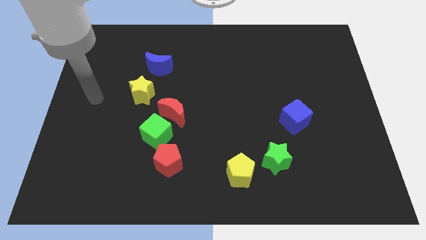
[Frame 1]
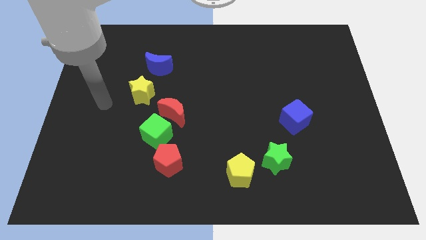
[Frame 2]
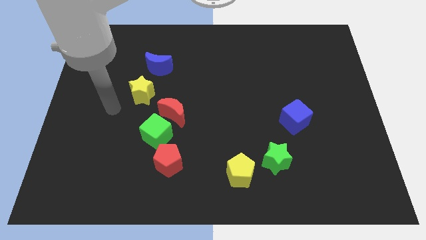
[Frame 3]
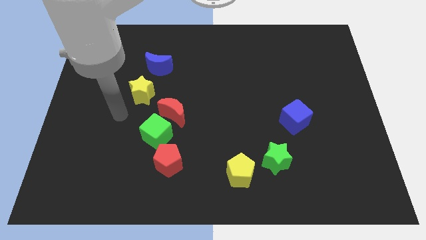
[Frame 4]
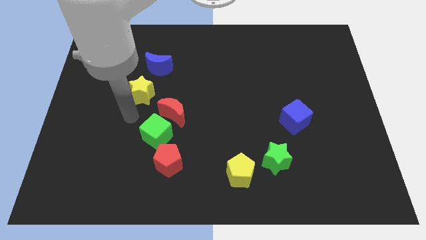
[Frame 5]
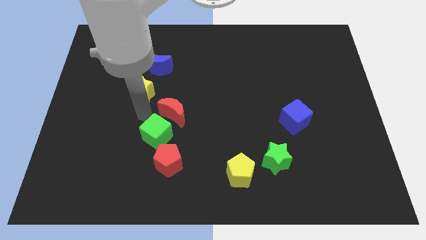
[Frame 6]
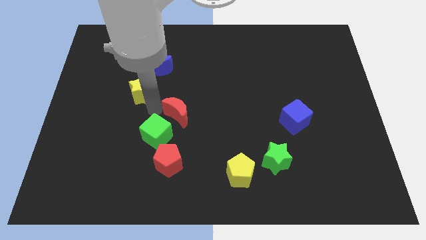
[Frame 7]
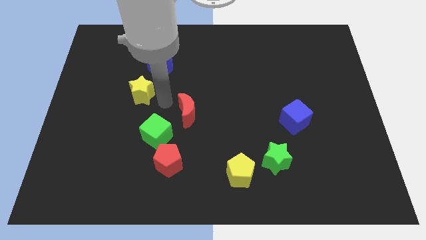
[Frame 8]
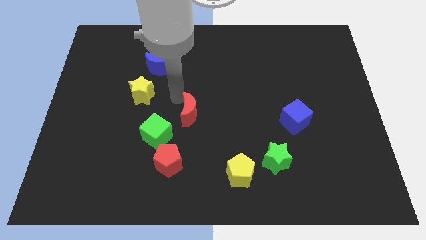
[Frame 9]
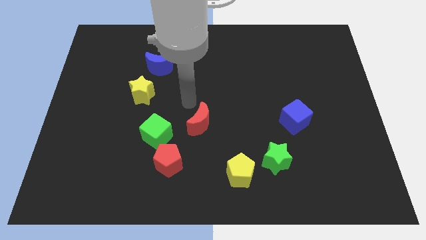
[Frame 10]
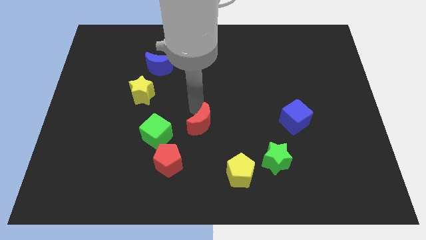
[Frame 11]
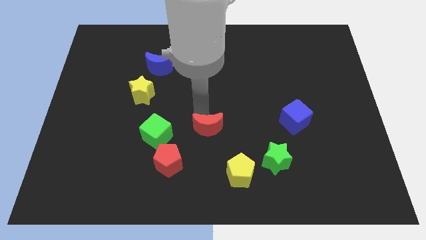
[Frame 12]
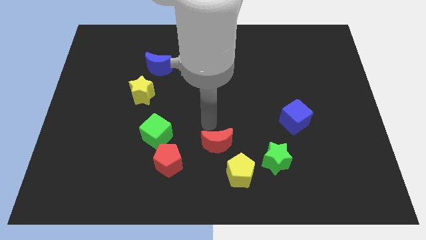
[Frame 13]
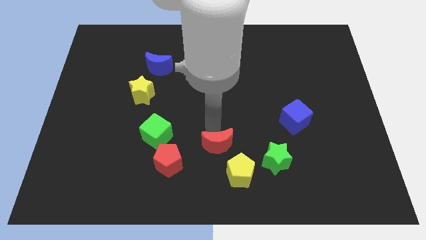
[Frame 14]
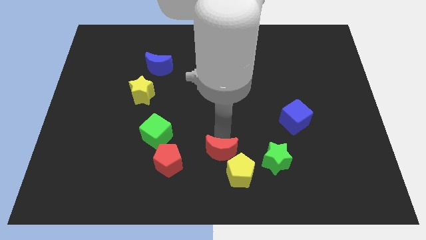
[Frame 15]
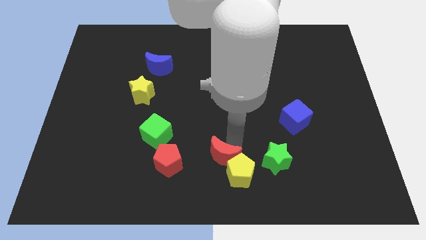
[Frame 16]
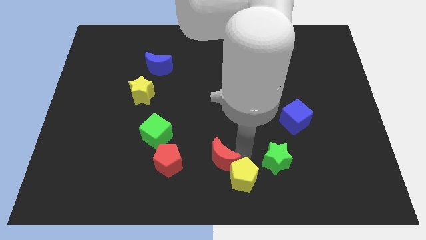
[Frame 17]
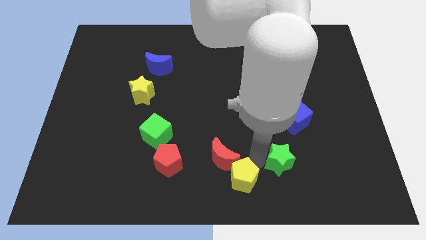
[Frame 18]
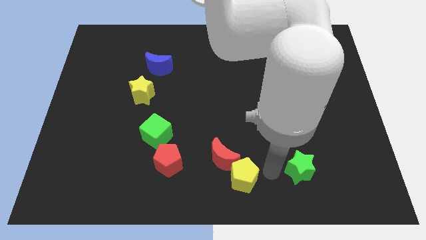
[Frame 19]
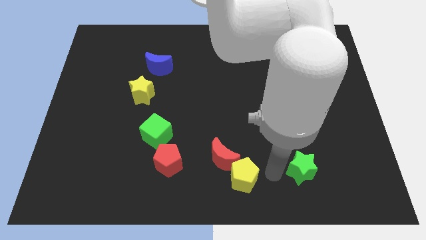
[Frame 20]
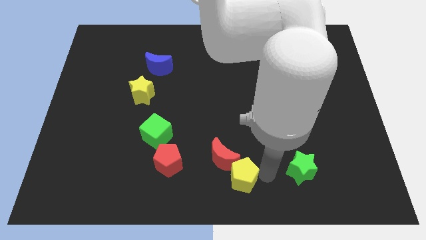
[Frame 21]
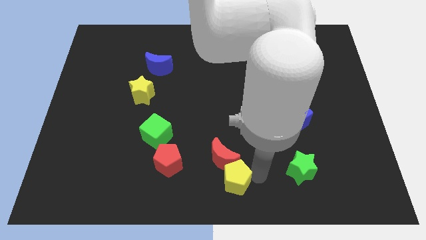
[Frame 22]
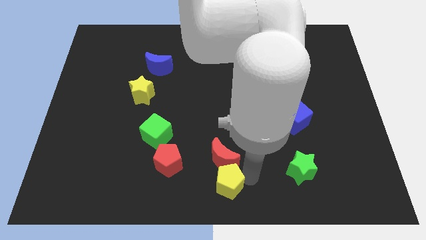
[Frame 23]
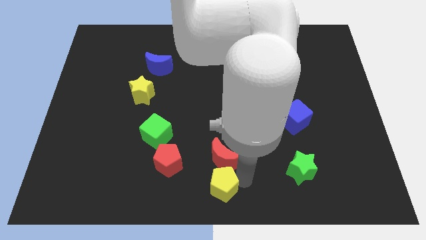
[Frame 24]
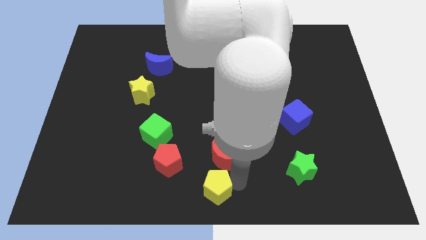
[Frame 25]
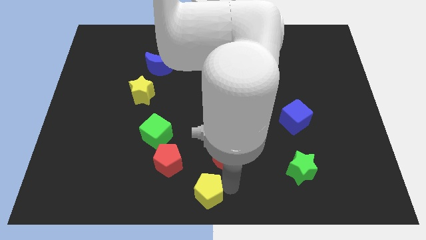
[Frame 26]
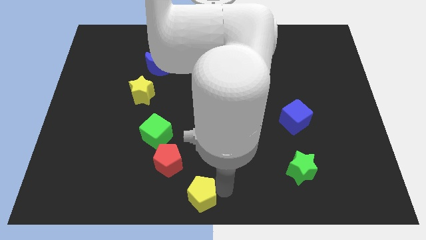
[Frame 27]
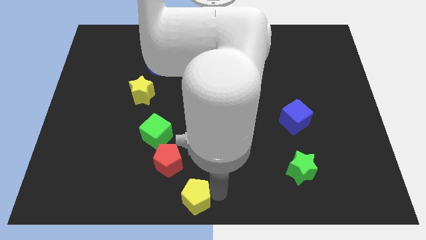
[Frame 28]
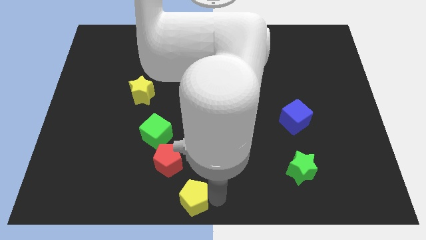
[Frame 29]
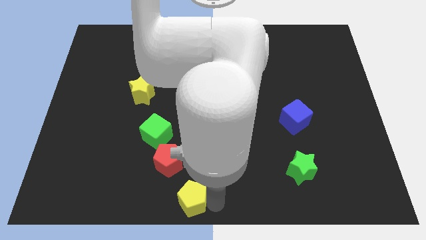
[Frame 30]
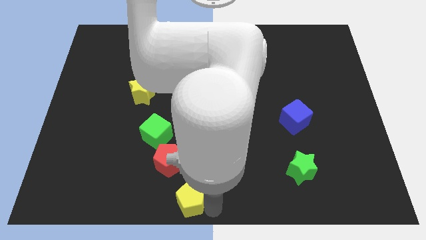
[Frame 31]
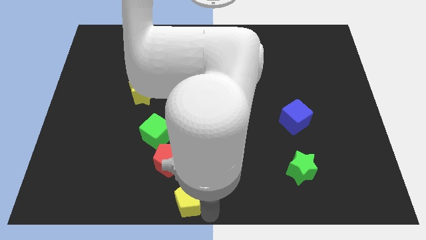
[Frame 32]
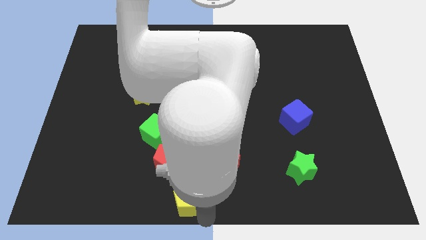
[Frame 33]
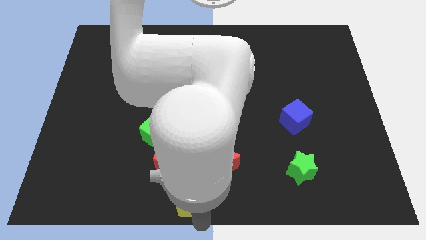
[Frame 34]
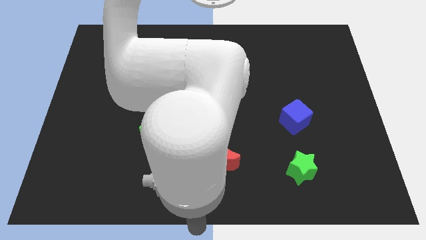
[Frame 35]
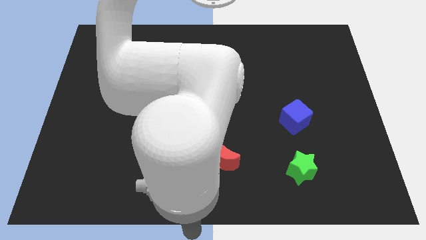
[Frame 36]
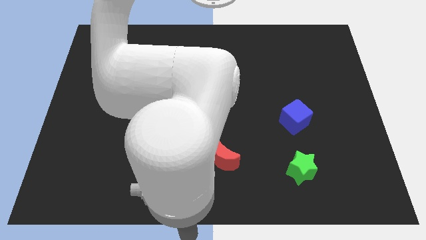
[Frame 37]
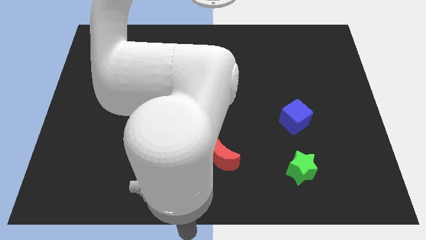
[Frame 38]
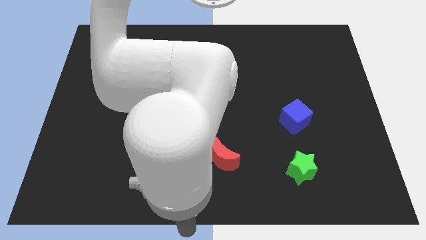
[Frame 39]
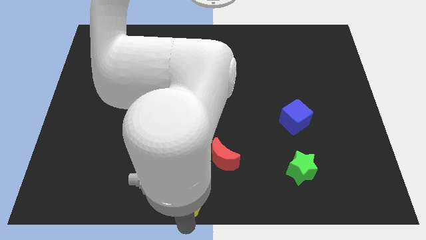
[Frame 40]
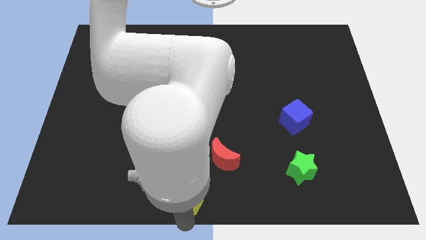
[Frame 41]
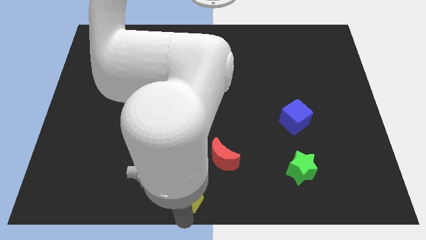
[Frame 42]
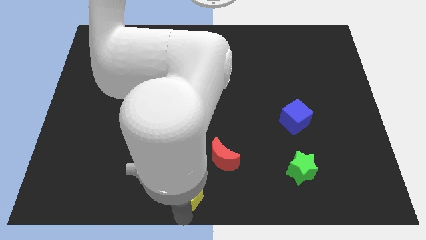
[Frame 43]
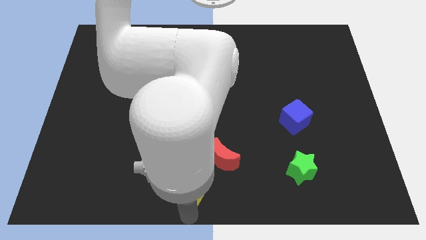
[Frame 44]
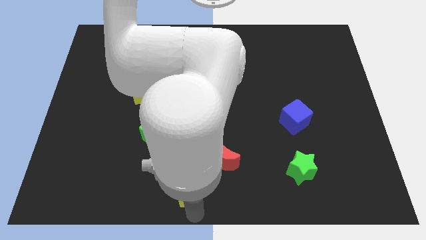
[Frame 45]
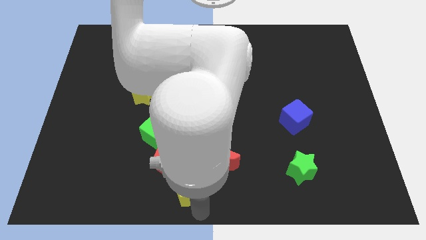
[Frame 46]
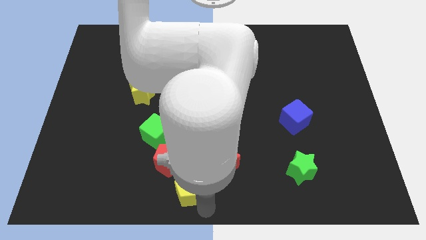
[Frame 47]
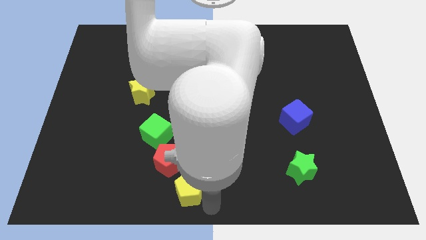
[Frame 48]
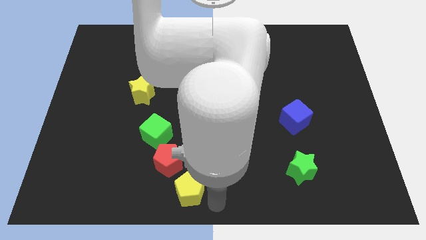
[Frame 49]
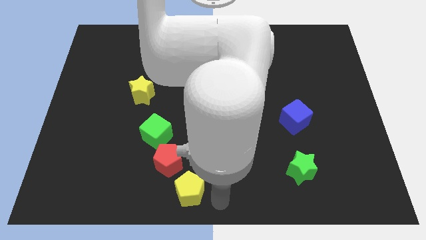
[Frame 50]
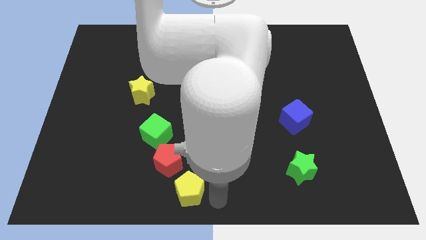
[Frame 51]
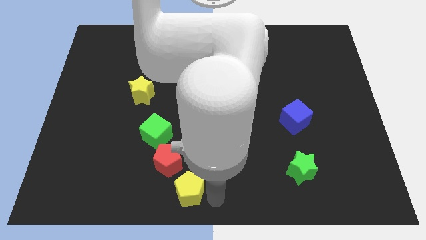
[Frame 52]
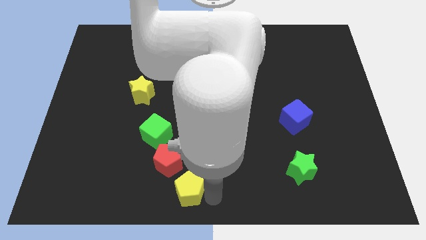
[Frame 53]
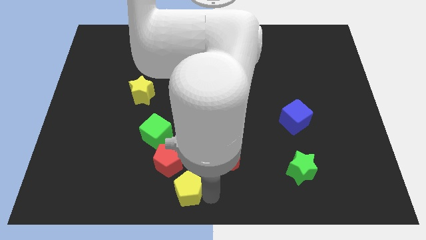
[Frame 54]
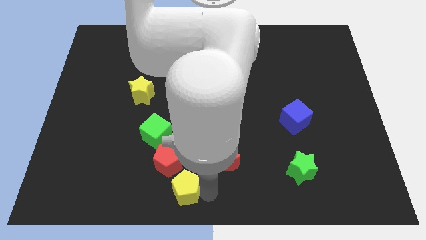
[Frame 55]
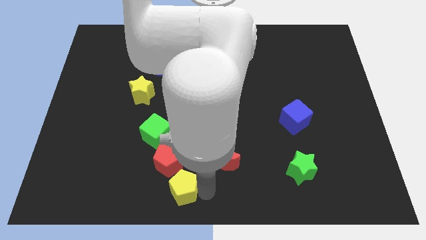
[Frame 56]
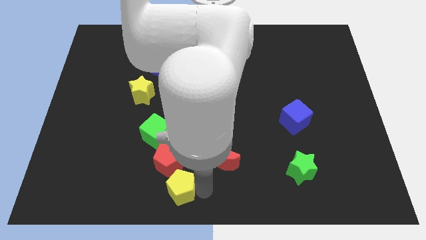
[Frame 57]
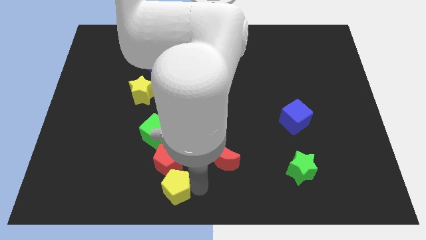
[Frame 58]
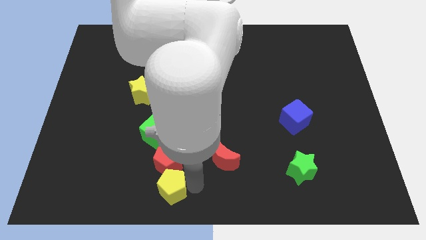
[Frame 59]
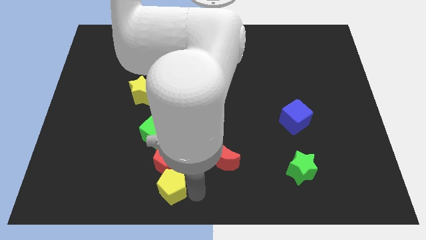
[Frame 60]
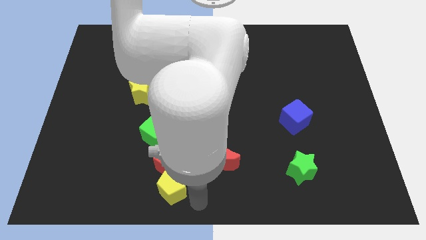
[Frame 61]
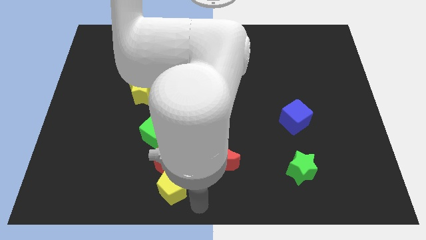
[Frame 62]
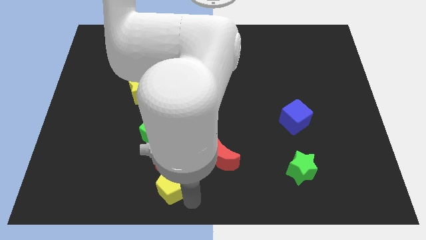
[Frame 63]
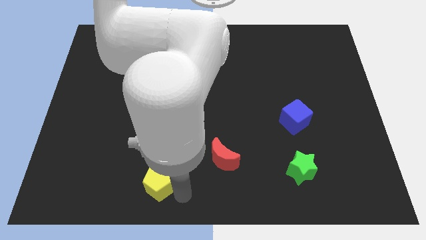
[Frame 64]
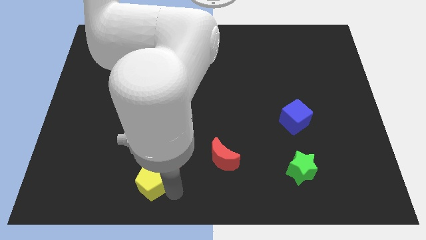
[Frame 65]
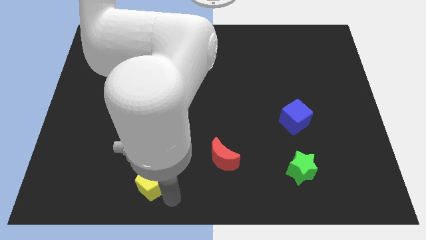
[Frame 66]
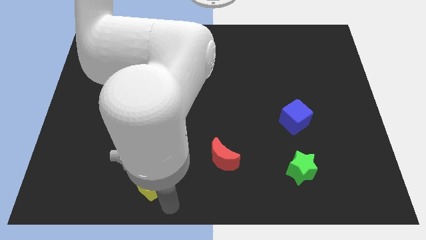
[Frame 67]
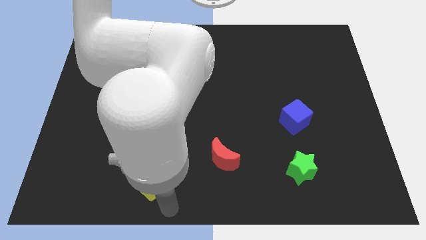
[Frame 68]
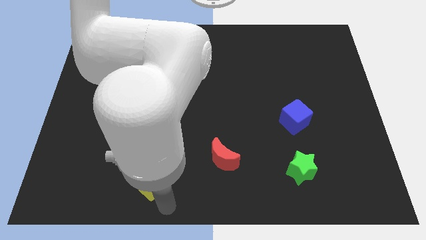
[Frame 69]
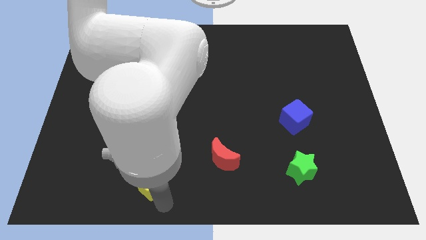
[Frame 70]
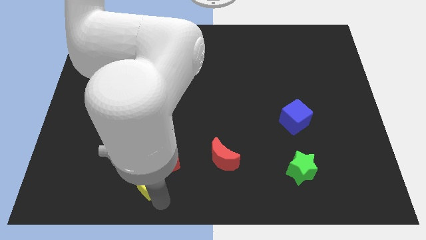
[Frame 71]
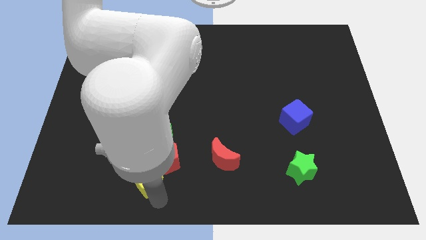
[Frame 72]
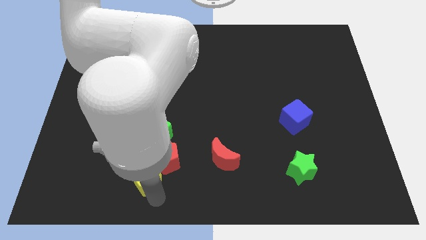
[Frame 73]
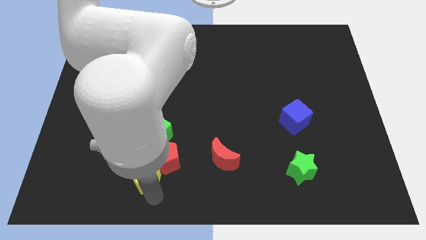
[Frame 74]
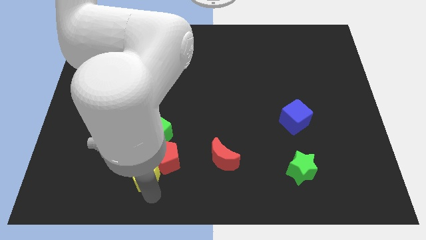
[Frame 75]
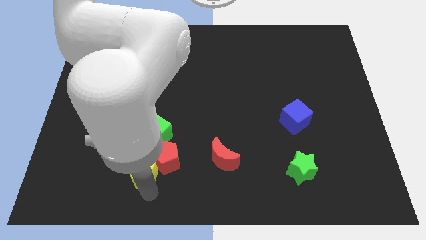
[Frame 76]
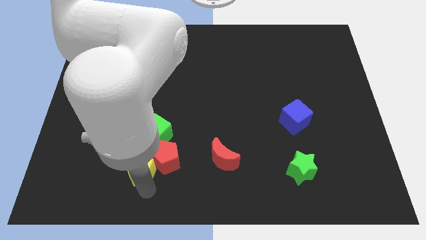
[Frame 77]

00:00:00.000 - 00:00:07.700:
move the yellow pentagon to the bottom left of the green cube
